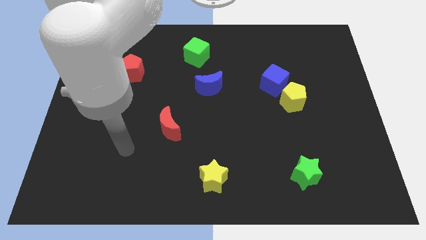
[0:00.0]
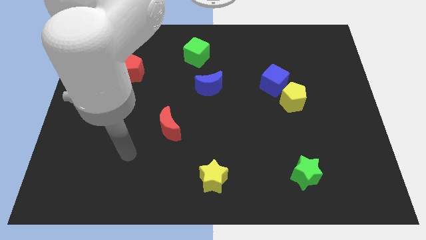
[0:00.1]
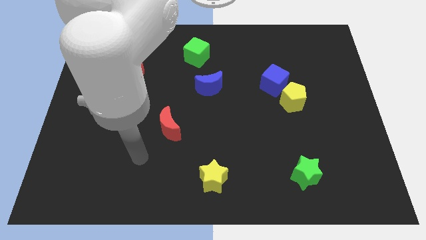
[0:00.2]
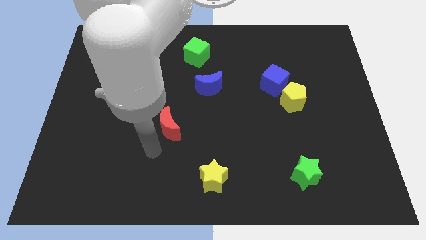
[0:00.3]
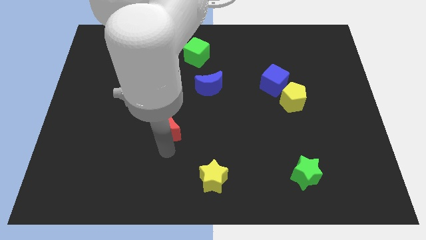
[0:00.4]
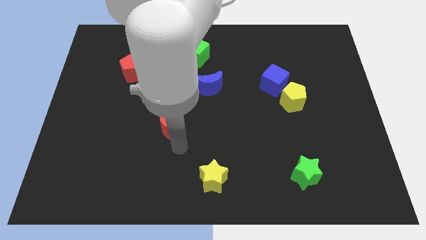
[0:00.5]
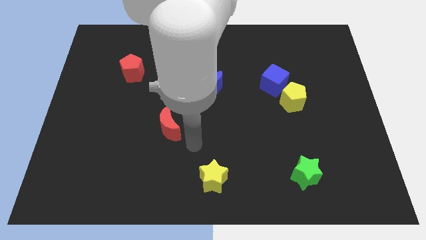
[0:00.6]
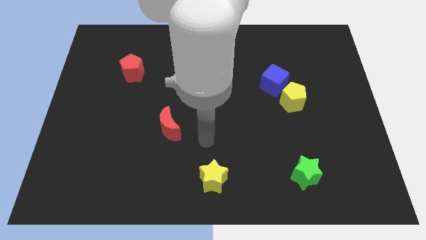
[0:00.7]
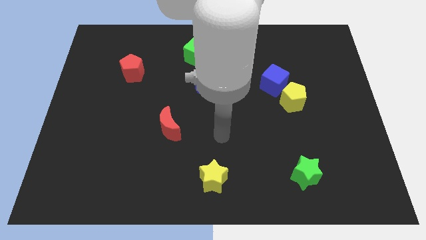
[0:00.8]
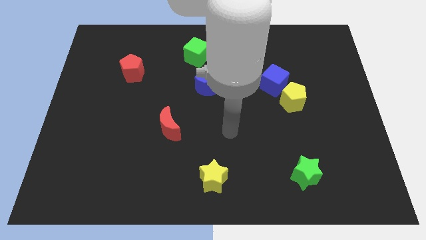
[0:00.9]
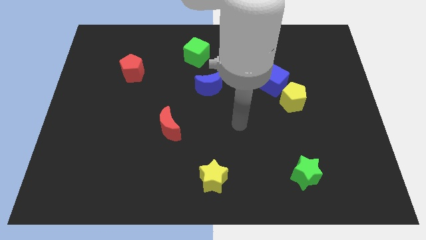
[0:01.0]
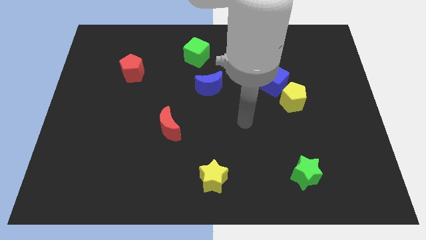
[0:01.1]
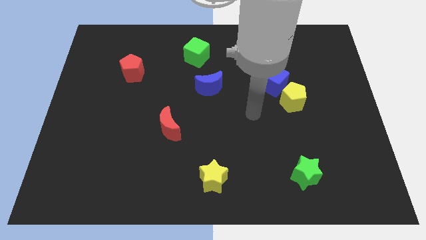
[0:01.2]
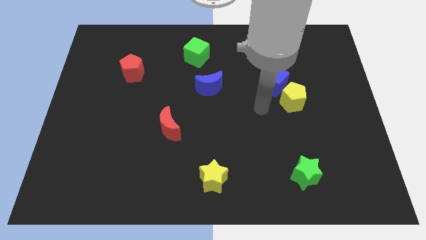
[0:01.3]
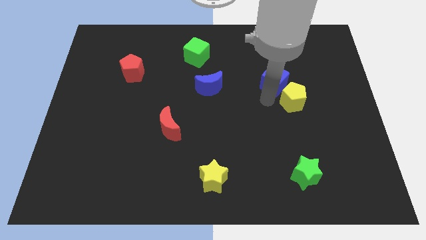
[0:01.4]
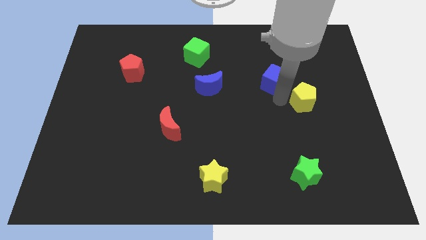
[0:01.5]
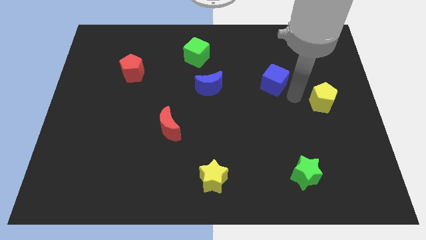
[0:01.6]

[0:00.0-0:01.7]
move the blue cube away from the yellow pentagon

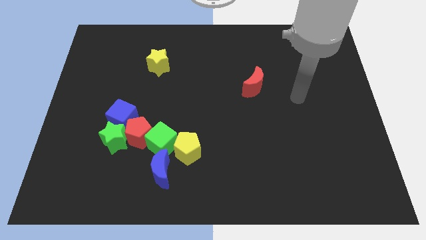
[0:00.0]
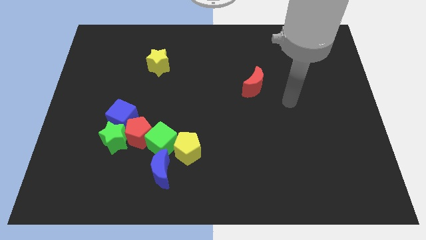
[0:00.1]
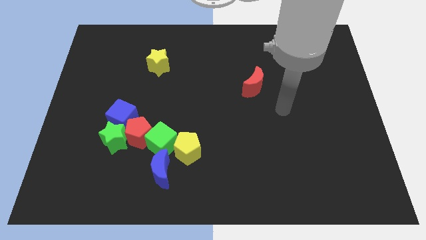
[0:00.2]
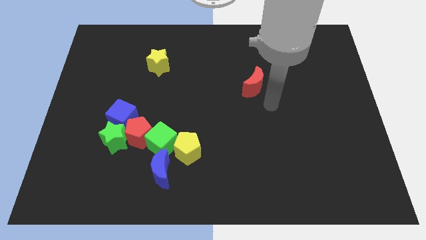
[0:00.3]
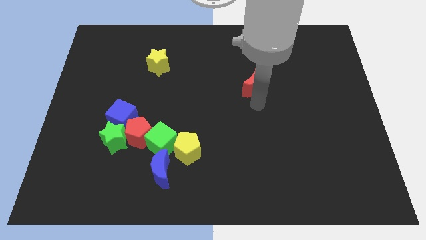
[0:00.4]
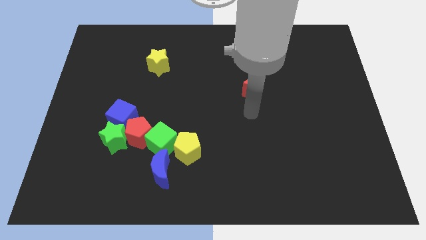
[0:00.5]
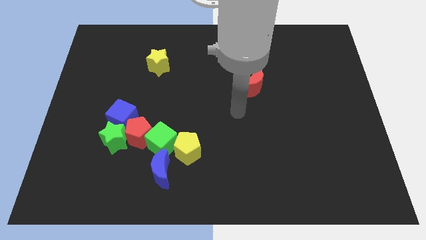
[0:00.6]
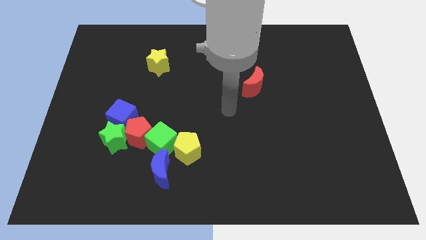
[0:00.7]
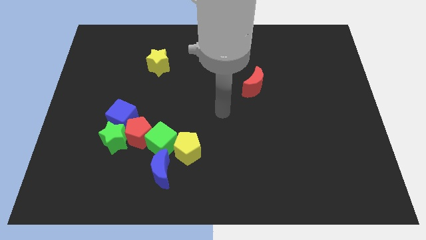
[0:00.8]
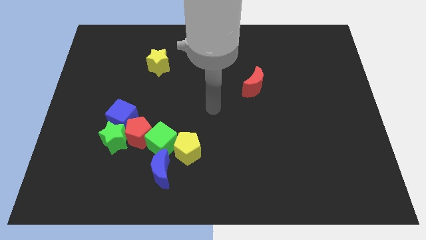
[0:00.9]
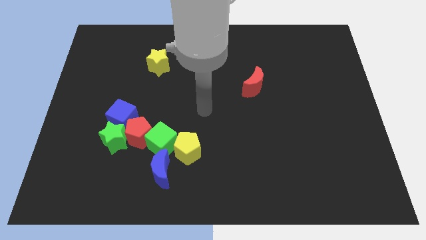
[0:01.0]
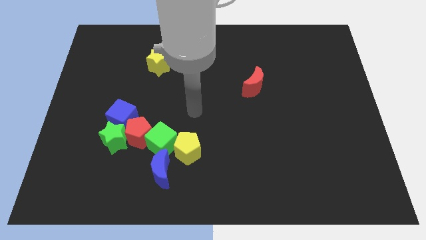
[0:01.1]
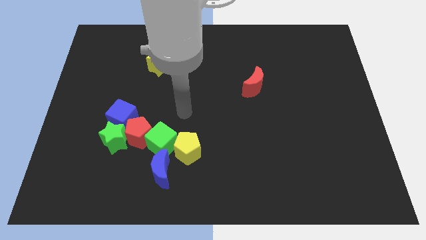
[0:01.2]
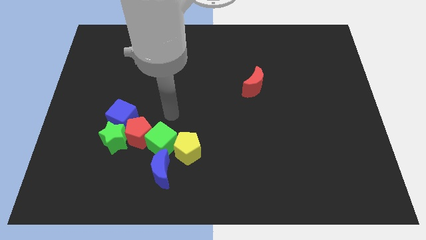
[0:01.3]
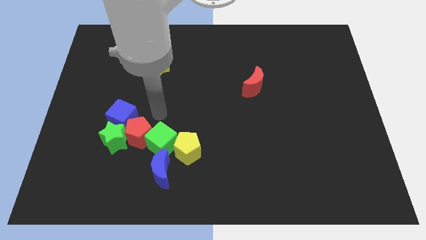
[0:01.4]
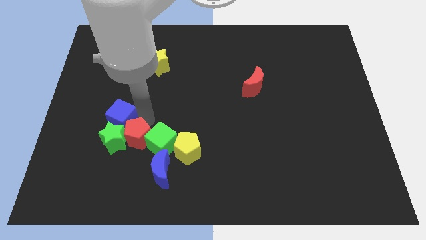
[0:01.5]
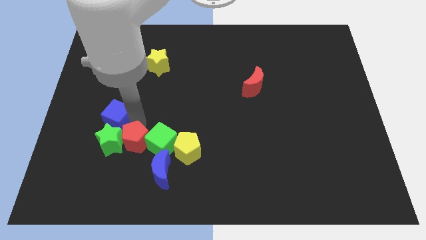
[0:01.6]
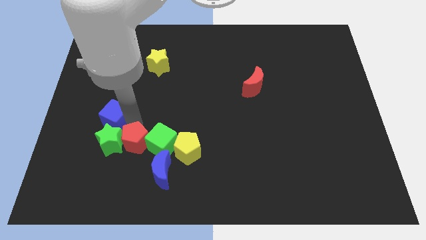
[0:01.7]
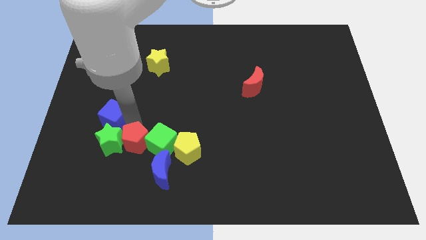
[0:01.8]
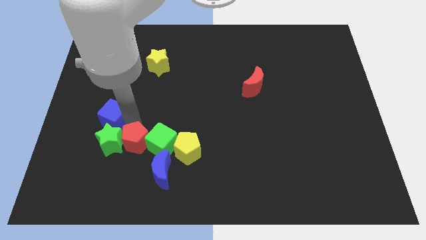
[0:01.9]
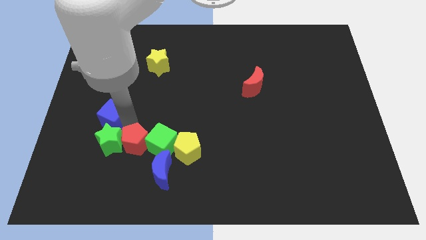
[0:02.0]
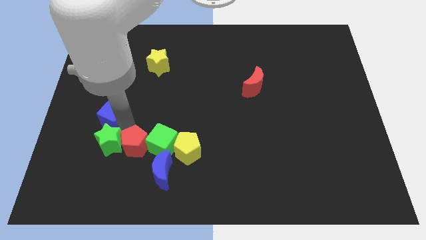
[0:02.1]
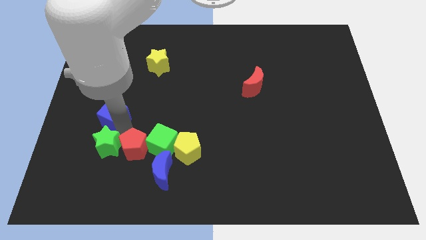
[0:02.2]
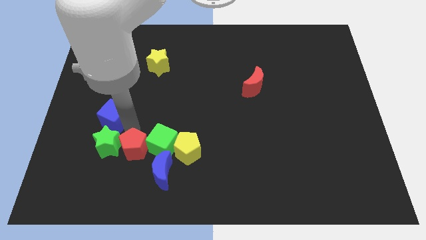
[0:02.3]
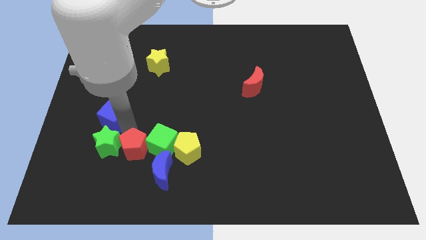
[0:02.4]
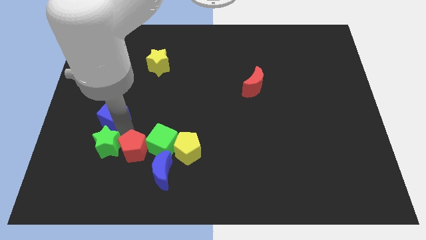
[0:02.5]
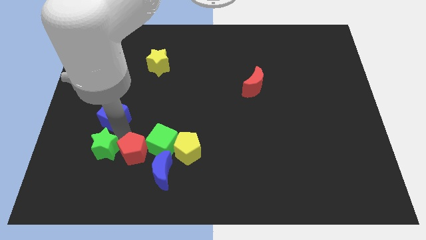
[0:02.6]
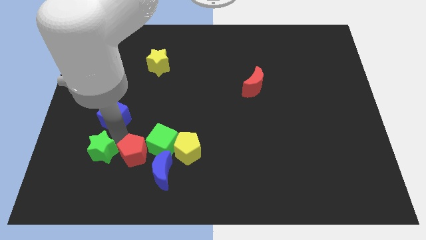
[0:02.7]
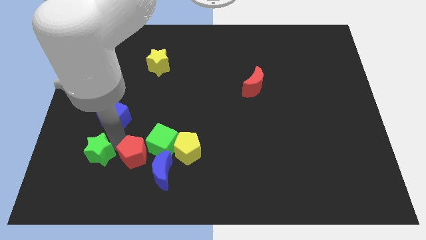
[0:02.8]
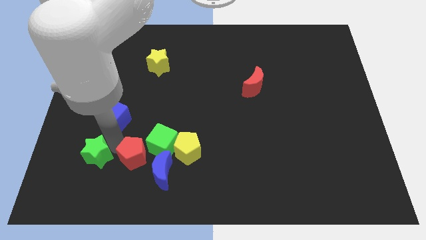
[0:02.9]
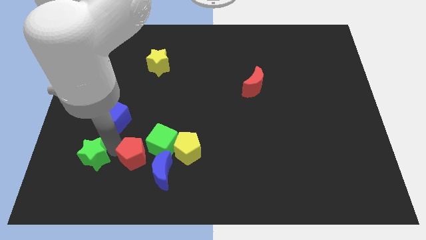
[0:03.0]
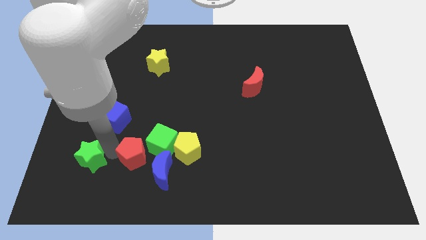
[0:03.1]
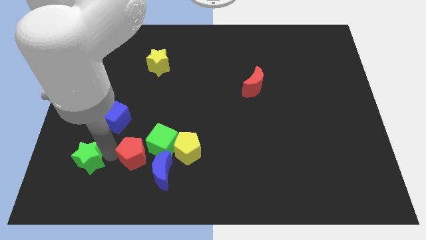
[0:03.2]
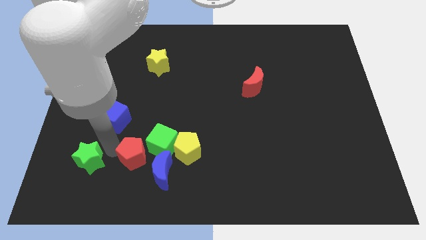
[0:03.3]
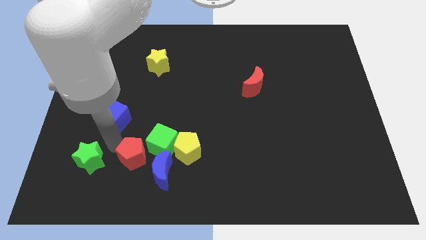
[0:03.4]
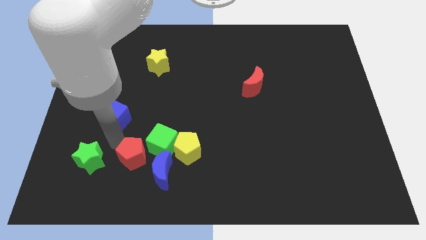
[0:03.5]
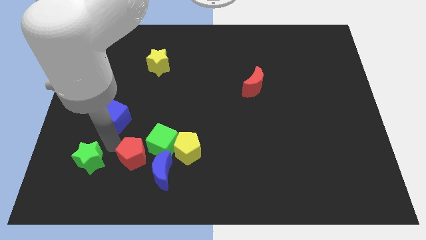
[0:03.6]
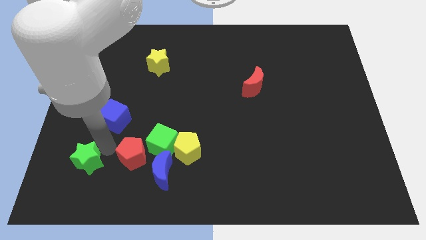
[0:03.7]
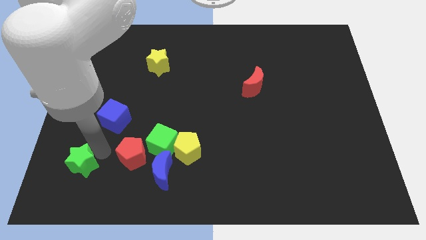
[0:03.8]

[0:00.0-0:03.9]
move the green star away from the red pentagon and blue cube

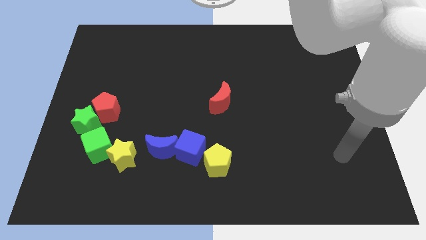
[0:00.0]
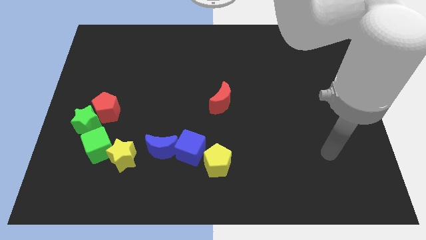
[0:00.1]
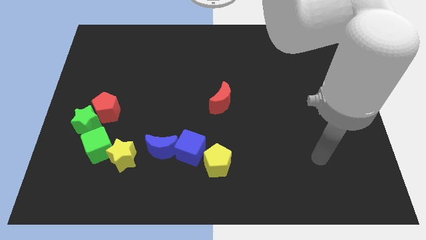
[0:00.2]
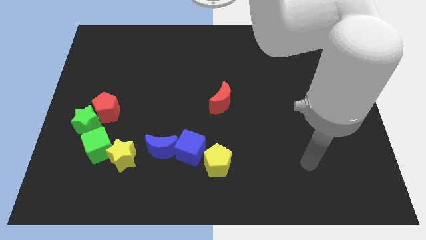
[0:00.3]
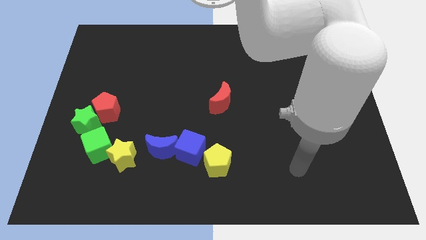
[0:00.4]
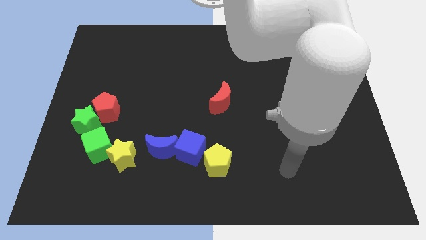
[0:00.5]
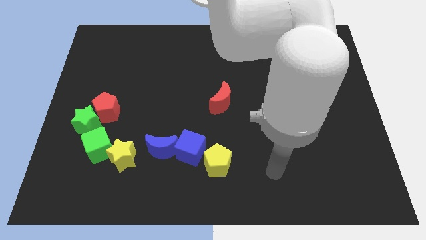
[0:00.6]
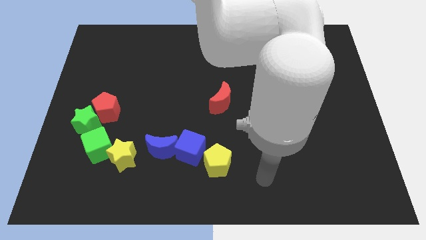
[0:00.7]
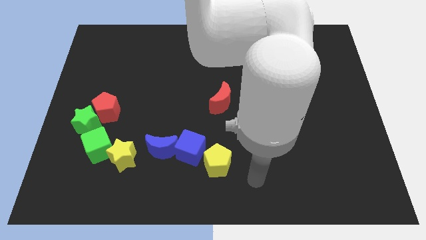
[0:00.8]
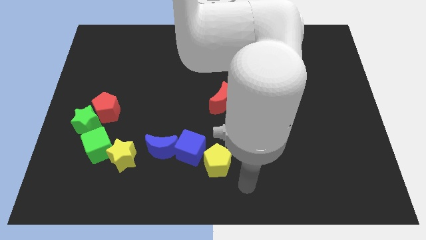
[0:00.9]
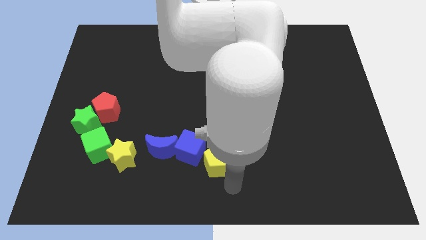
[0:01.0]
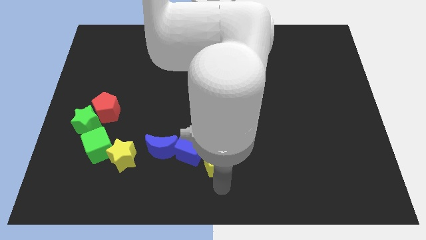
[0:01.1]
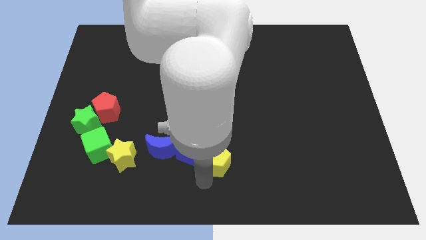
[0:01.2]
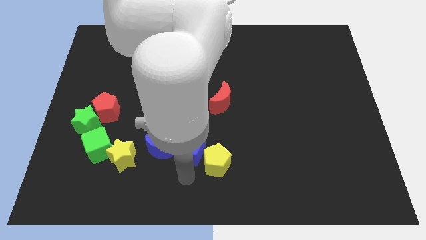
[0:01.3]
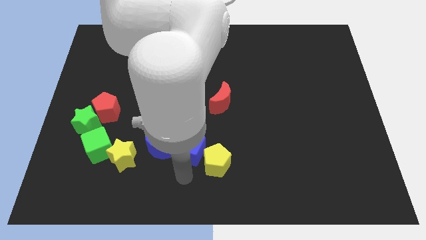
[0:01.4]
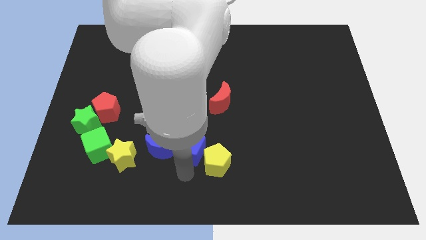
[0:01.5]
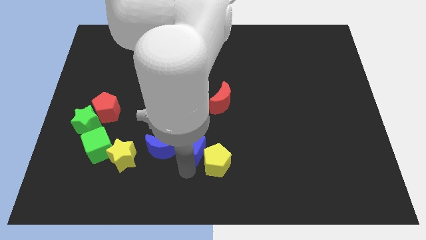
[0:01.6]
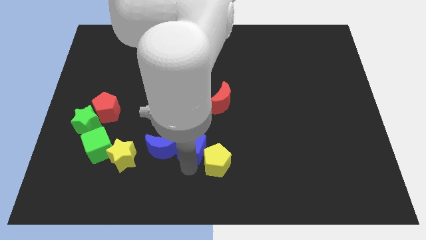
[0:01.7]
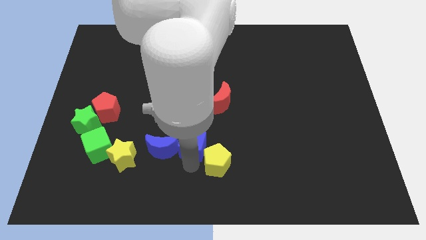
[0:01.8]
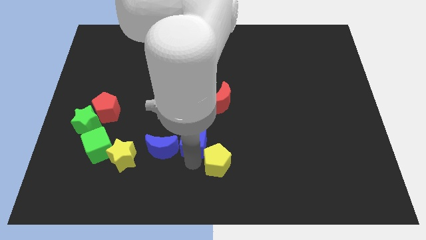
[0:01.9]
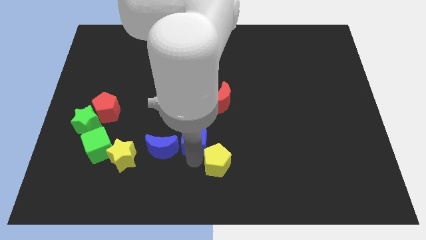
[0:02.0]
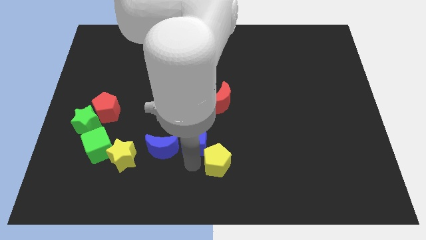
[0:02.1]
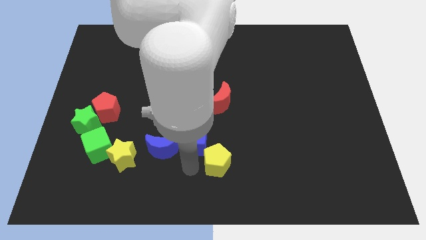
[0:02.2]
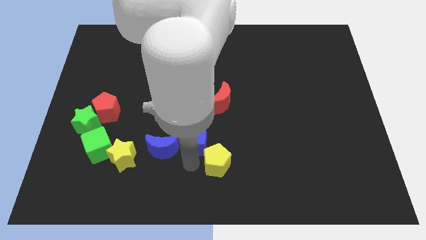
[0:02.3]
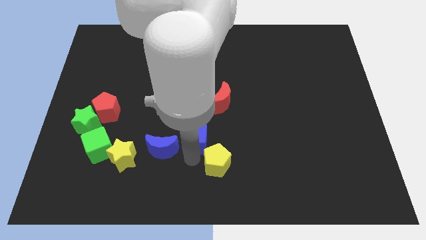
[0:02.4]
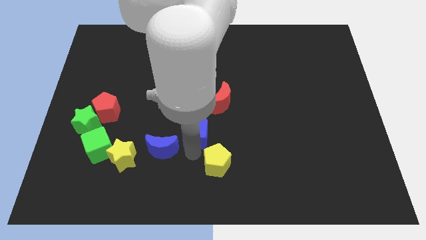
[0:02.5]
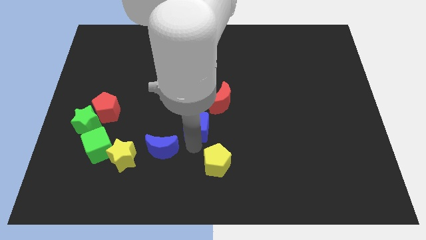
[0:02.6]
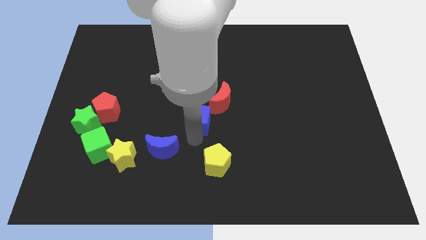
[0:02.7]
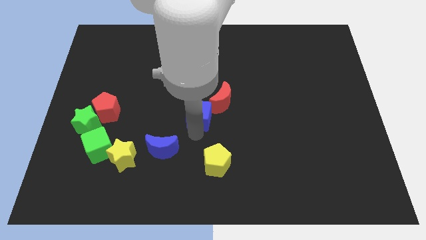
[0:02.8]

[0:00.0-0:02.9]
pull the blue cube apart from the blue moon and yellow pentagon

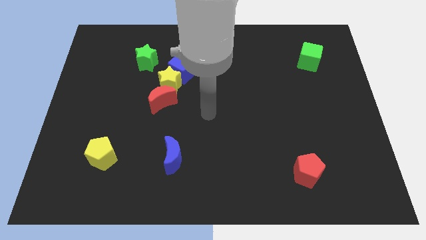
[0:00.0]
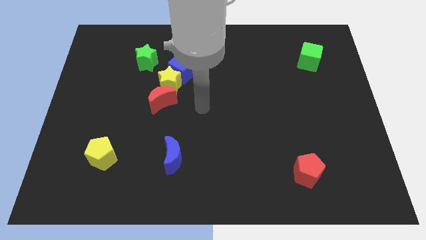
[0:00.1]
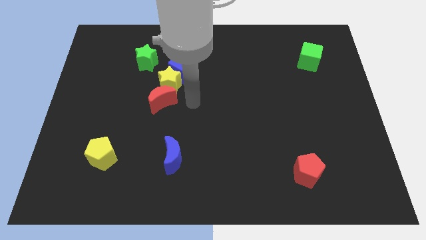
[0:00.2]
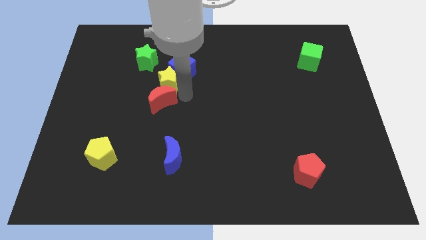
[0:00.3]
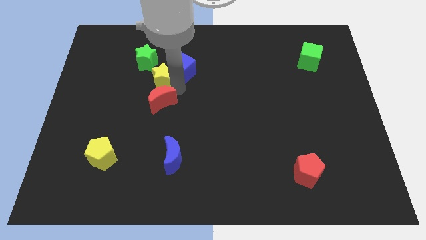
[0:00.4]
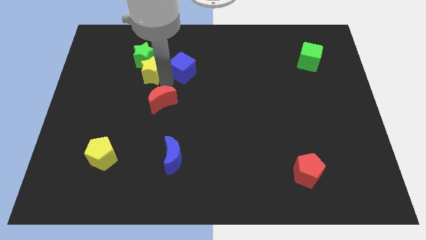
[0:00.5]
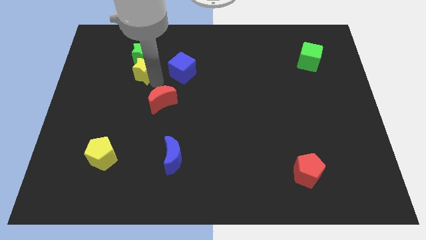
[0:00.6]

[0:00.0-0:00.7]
move the red moon away from the yellow star

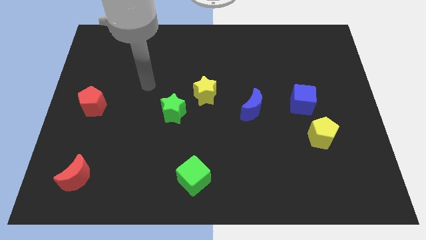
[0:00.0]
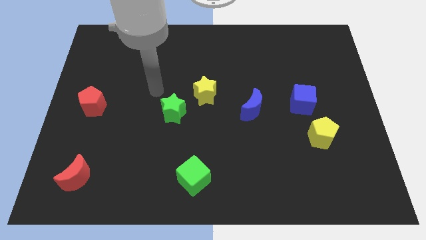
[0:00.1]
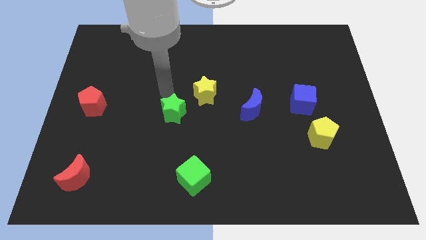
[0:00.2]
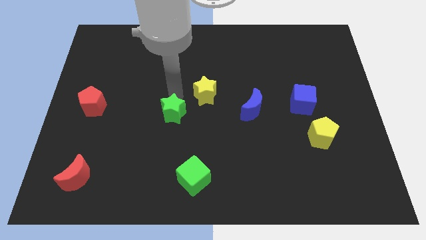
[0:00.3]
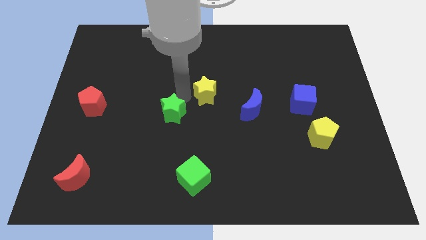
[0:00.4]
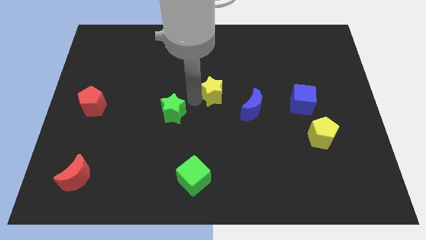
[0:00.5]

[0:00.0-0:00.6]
pull the green star apart from the yellow star
